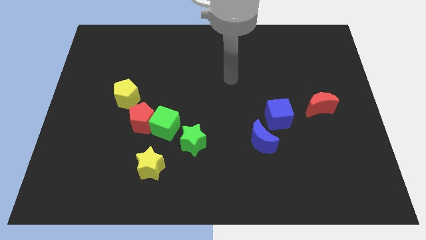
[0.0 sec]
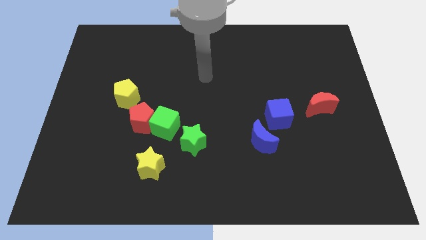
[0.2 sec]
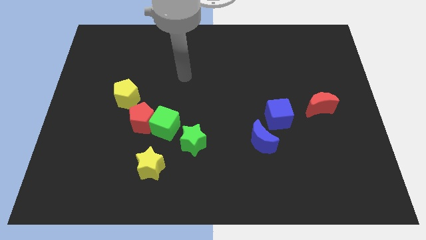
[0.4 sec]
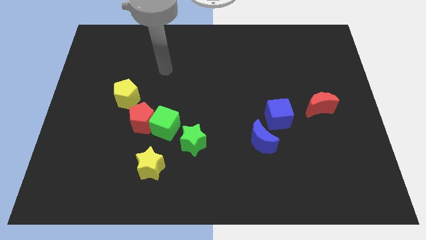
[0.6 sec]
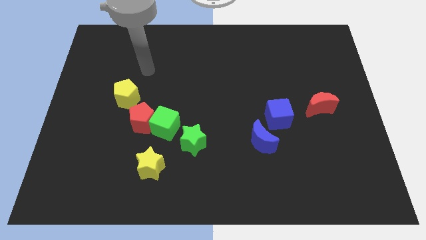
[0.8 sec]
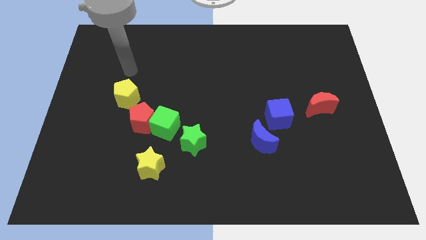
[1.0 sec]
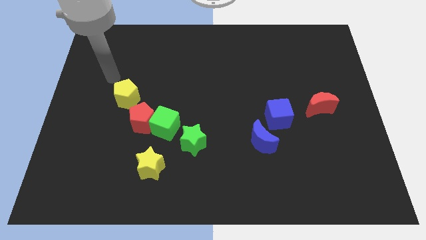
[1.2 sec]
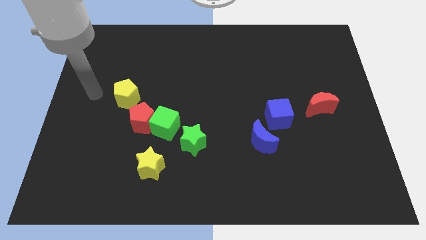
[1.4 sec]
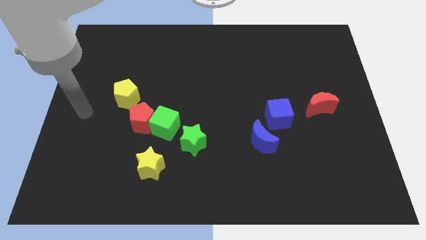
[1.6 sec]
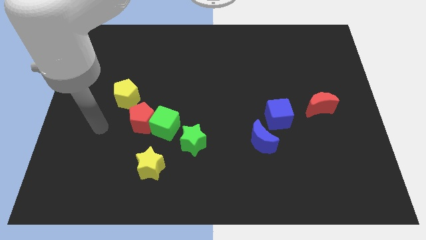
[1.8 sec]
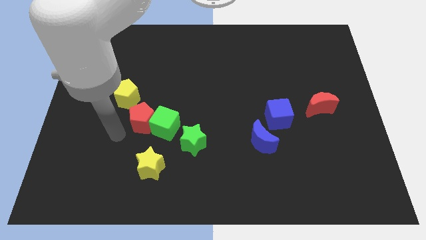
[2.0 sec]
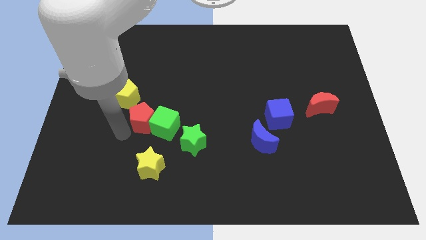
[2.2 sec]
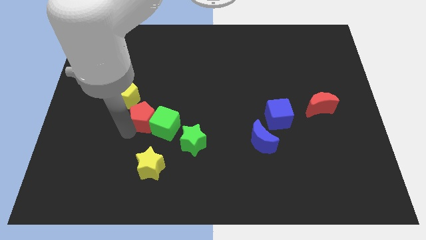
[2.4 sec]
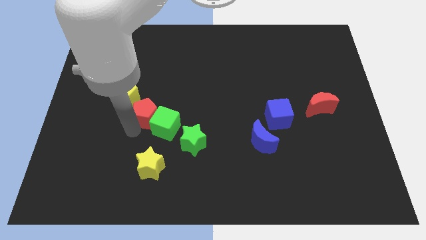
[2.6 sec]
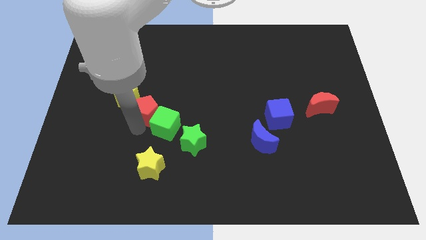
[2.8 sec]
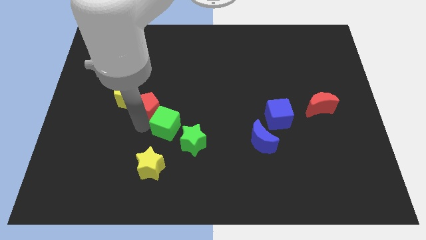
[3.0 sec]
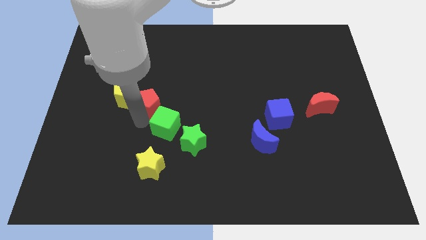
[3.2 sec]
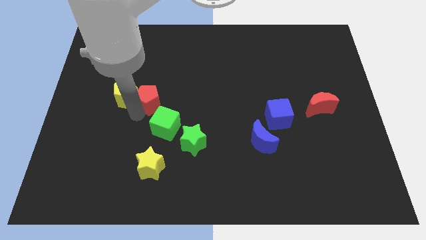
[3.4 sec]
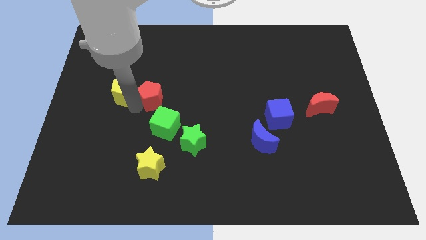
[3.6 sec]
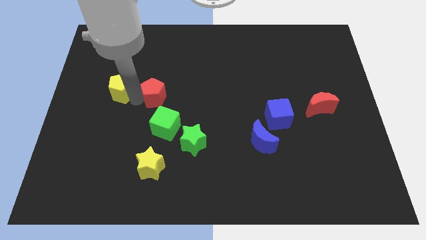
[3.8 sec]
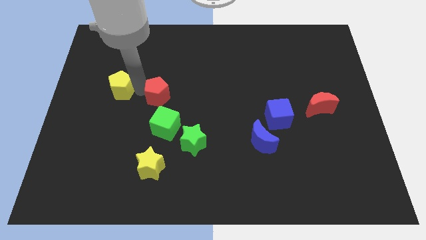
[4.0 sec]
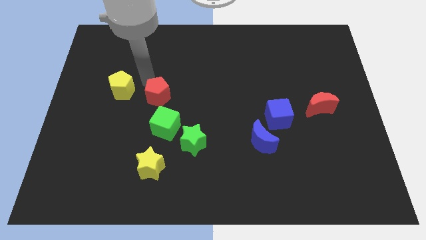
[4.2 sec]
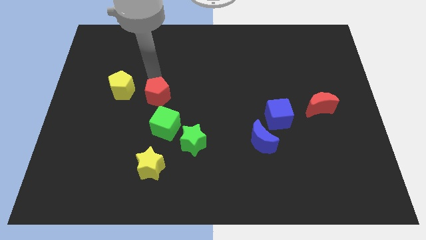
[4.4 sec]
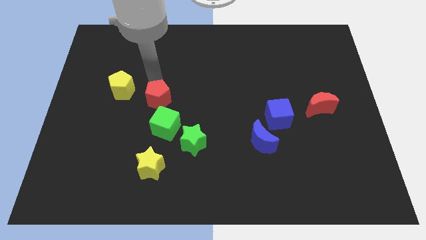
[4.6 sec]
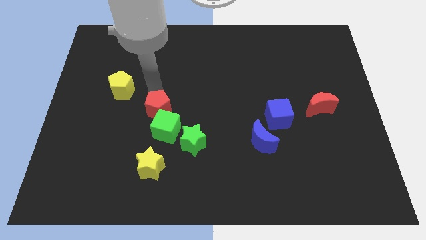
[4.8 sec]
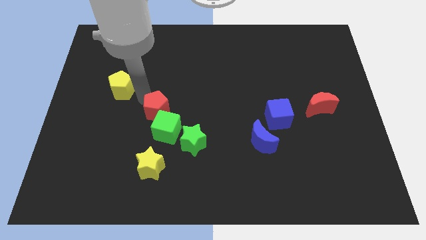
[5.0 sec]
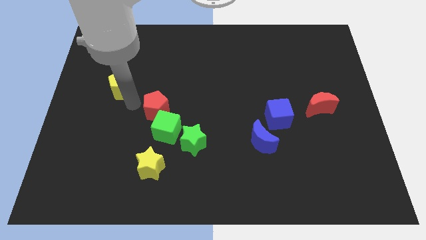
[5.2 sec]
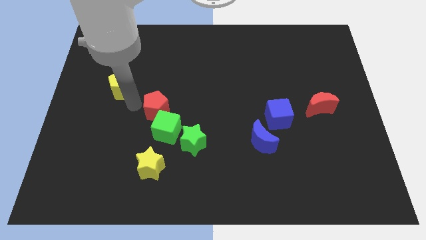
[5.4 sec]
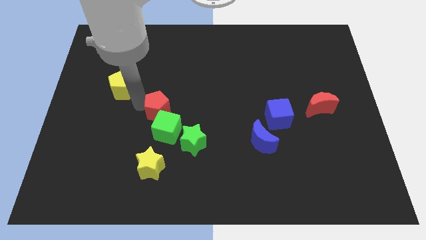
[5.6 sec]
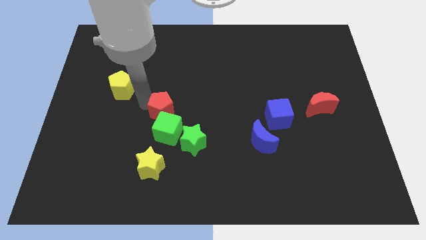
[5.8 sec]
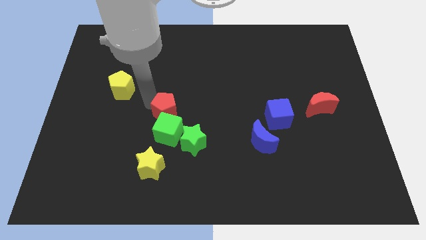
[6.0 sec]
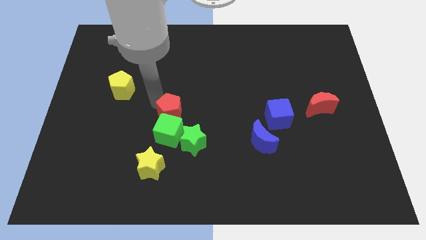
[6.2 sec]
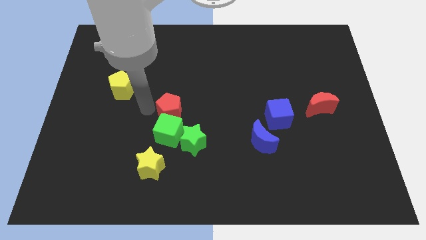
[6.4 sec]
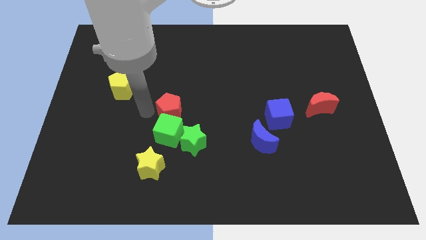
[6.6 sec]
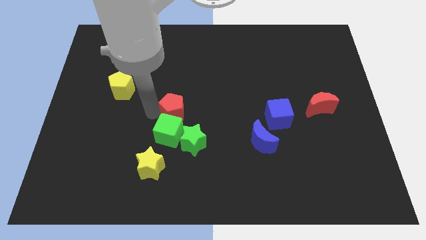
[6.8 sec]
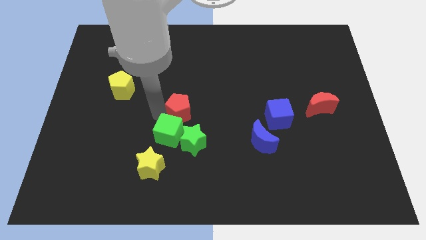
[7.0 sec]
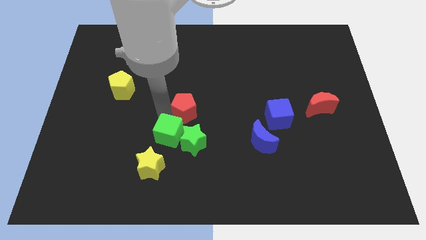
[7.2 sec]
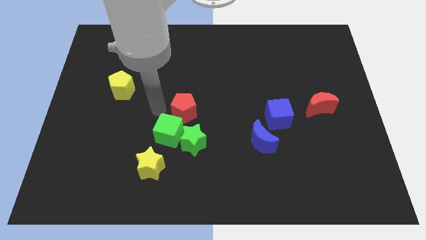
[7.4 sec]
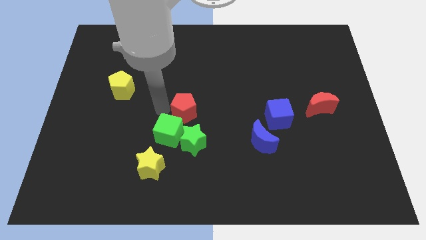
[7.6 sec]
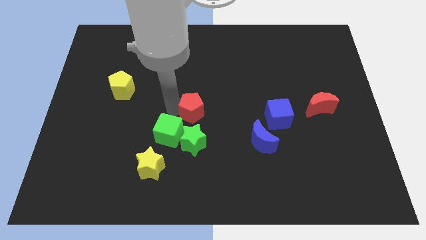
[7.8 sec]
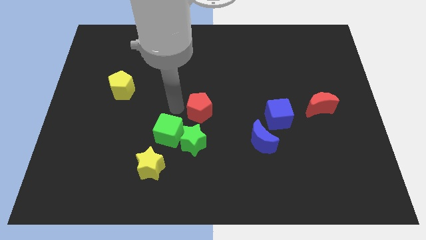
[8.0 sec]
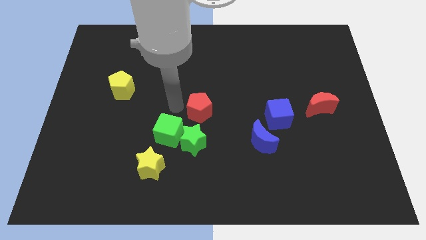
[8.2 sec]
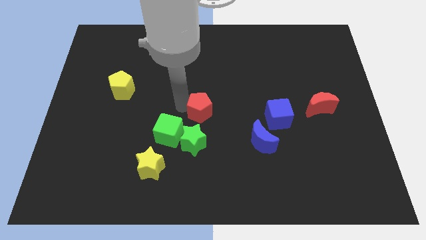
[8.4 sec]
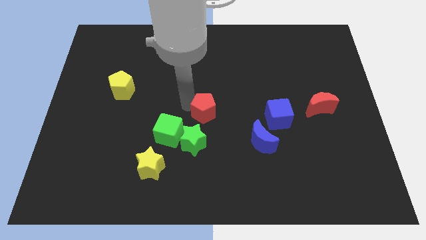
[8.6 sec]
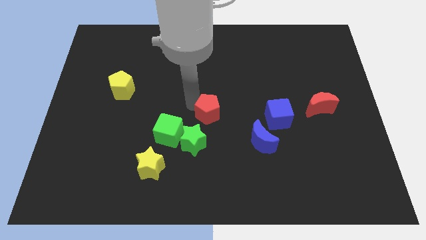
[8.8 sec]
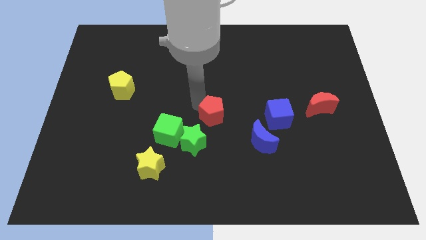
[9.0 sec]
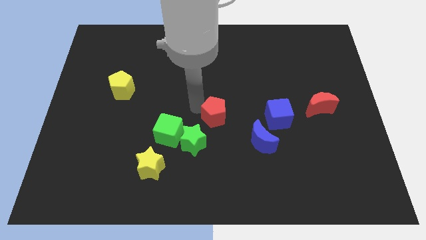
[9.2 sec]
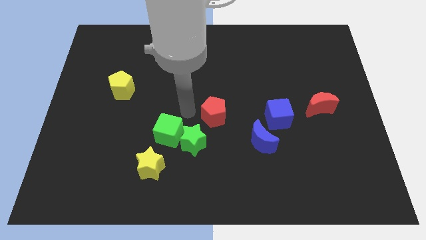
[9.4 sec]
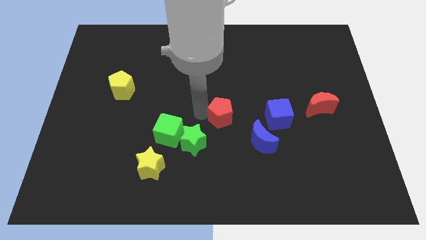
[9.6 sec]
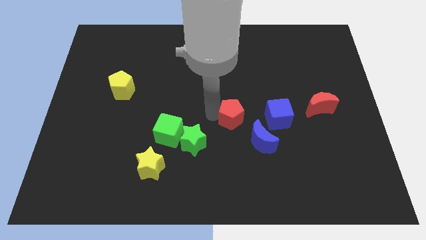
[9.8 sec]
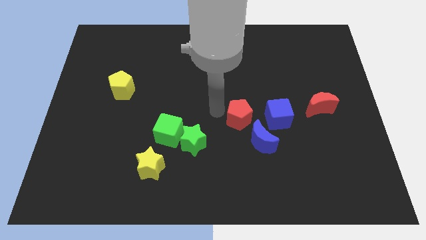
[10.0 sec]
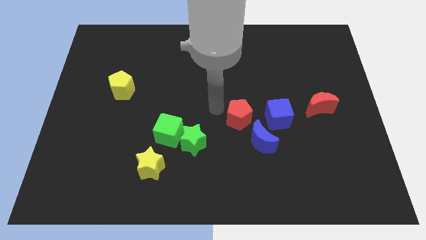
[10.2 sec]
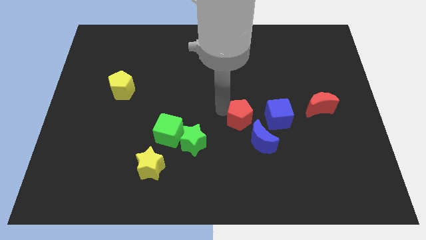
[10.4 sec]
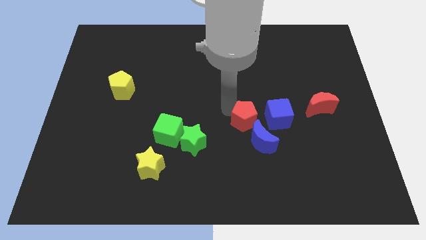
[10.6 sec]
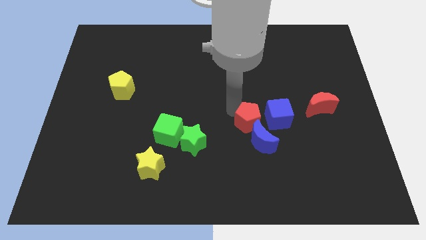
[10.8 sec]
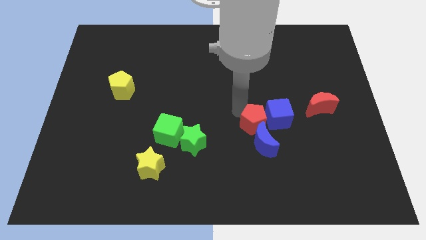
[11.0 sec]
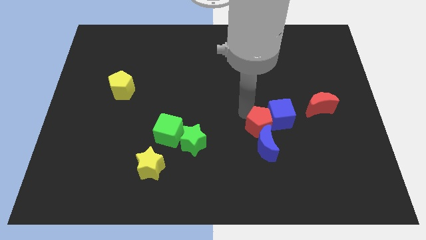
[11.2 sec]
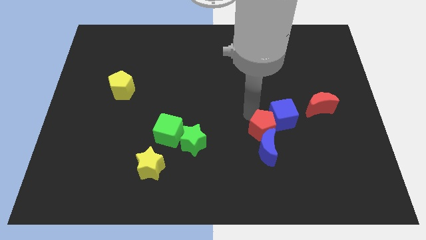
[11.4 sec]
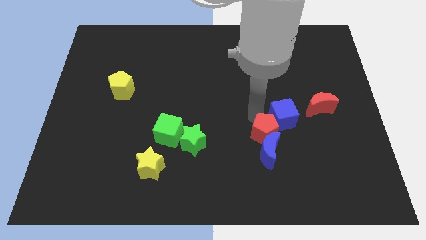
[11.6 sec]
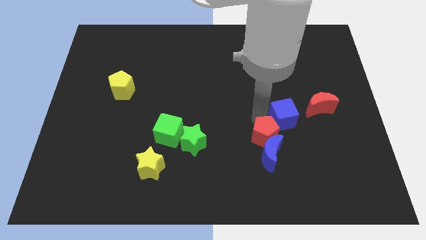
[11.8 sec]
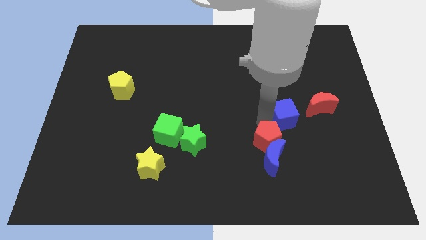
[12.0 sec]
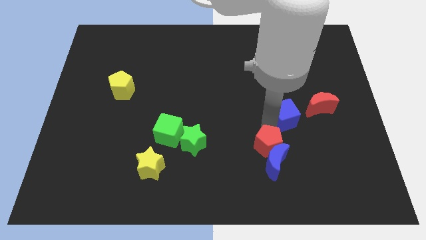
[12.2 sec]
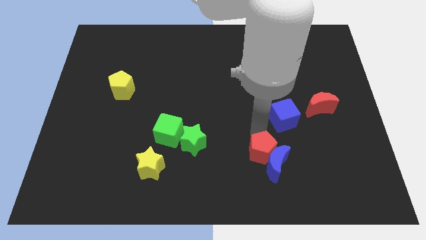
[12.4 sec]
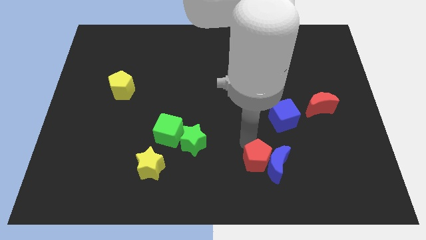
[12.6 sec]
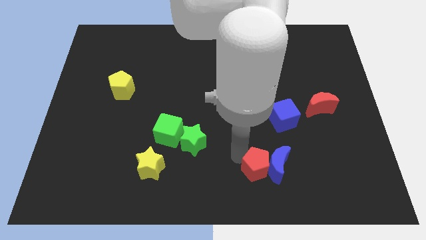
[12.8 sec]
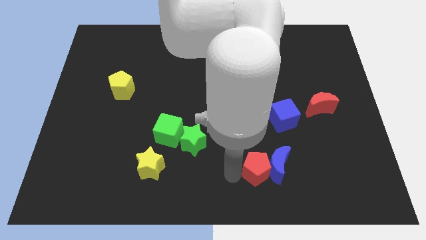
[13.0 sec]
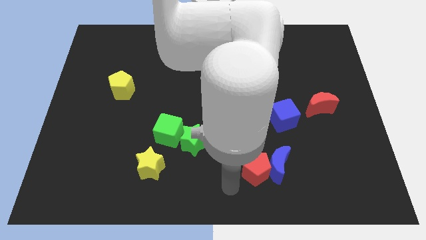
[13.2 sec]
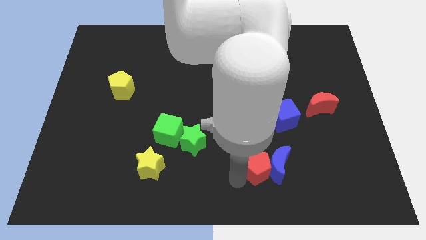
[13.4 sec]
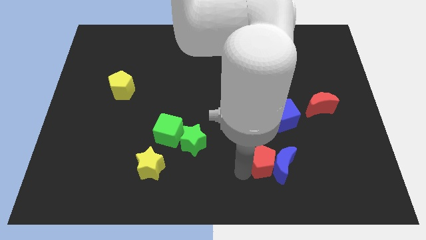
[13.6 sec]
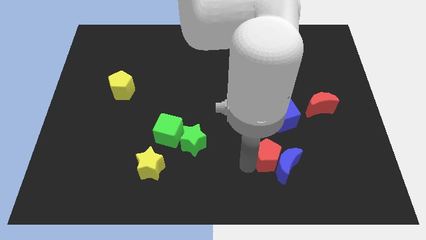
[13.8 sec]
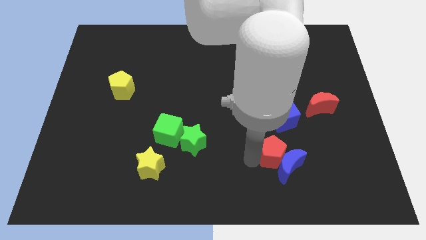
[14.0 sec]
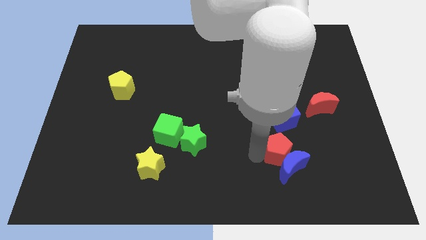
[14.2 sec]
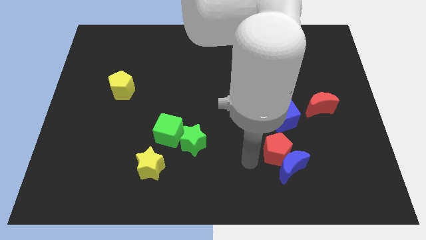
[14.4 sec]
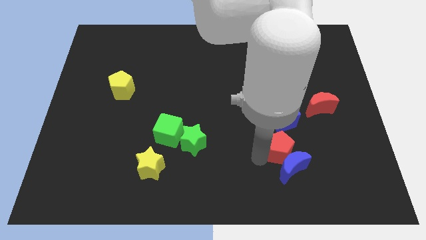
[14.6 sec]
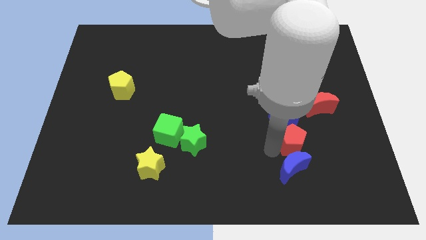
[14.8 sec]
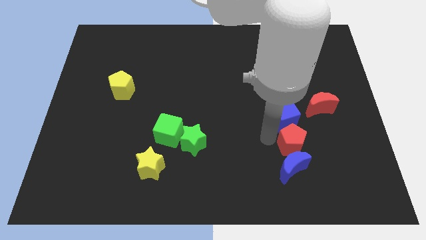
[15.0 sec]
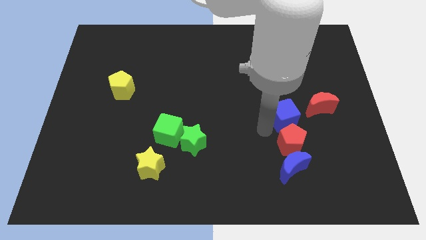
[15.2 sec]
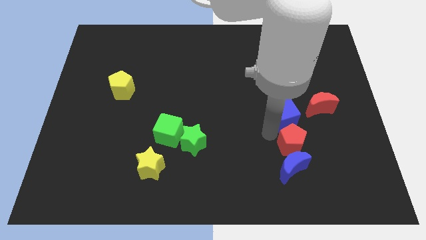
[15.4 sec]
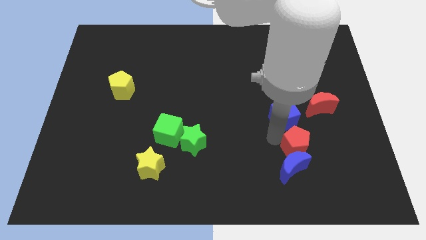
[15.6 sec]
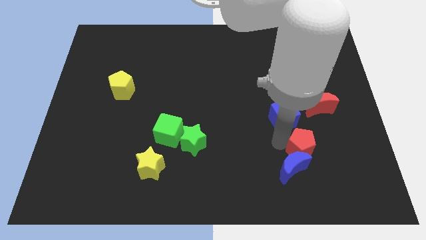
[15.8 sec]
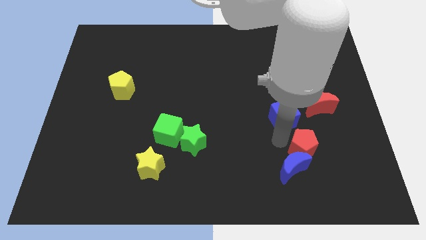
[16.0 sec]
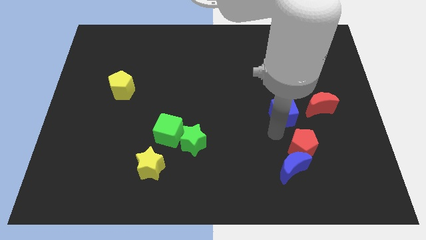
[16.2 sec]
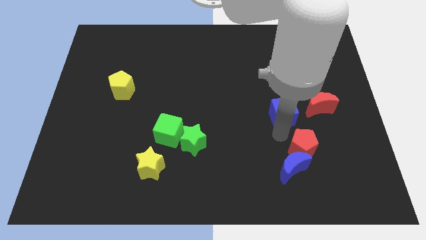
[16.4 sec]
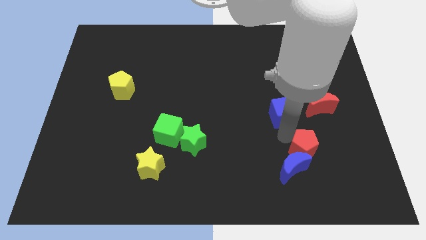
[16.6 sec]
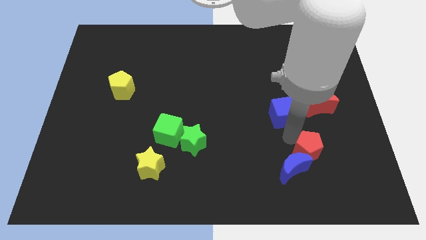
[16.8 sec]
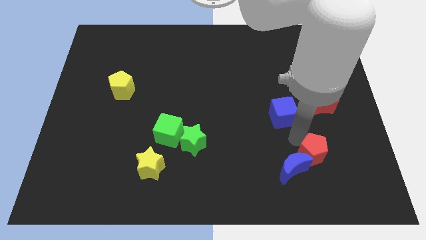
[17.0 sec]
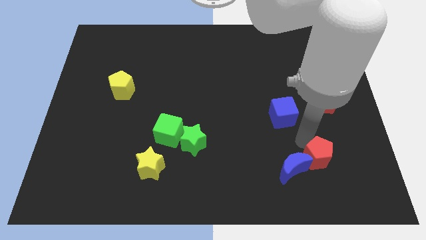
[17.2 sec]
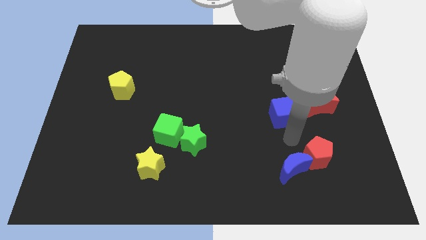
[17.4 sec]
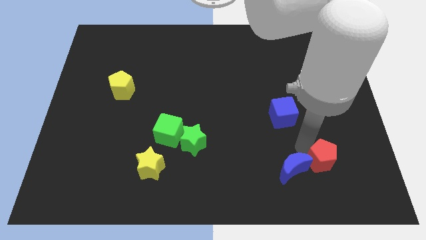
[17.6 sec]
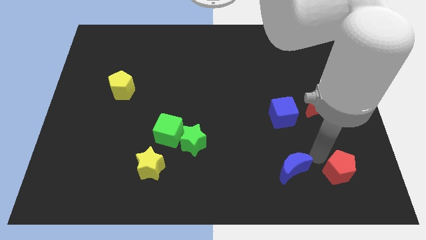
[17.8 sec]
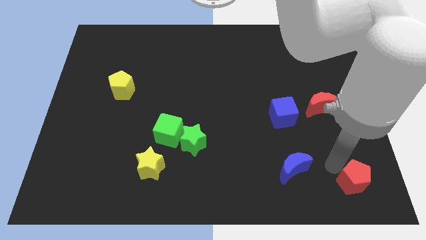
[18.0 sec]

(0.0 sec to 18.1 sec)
slide the red pentagon to the bottom right corner
